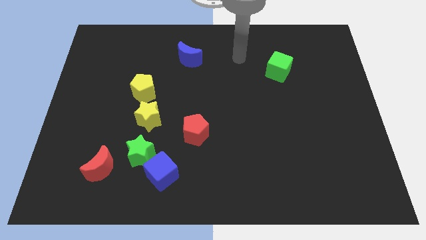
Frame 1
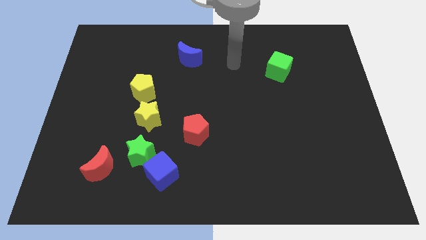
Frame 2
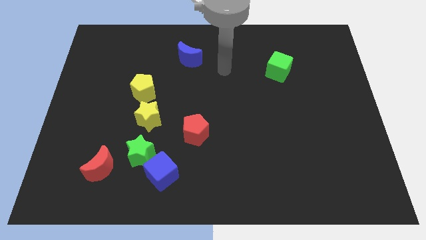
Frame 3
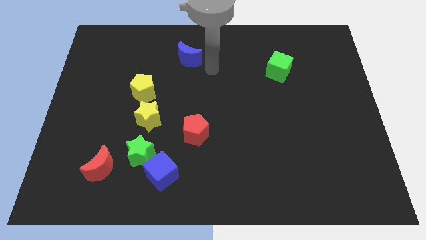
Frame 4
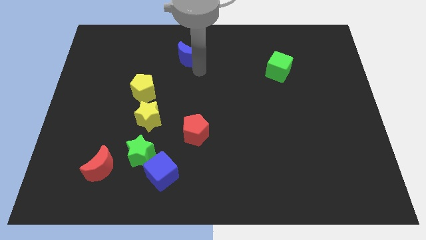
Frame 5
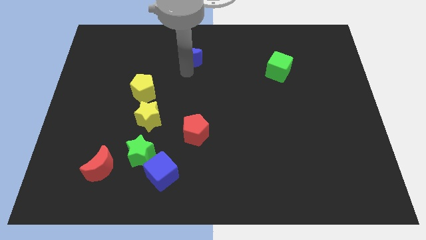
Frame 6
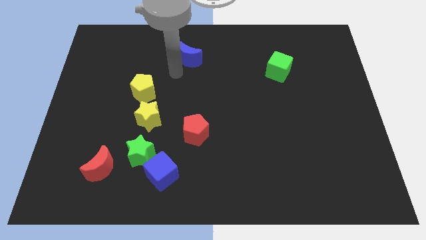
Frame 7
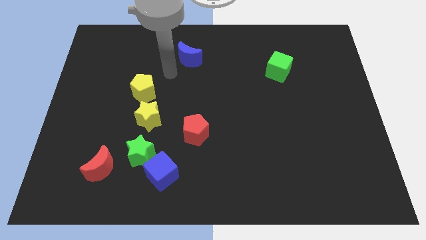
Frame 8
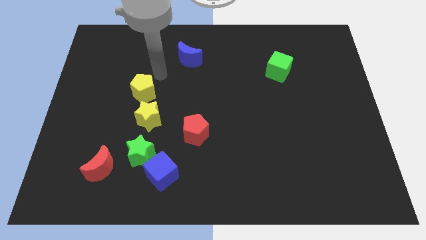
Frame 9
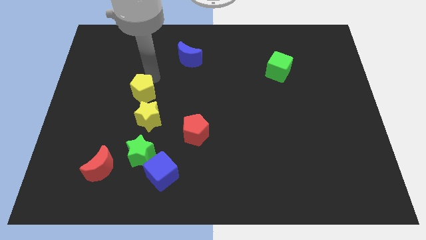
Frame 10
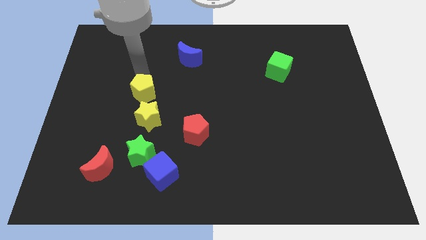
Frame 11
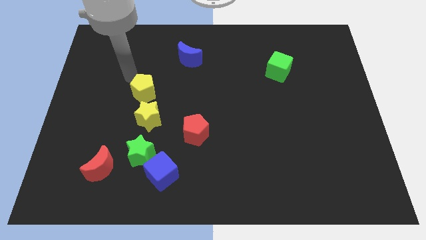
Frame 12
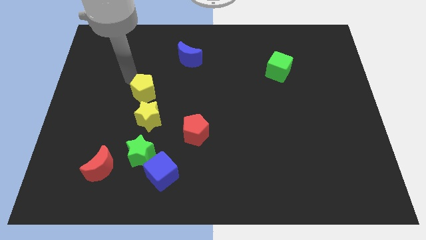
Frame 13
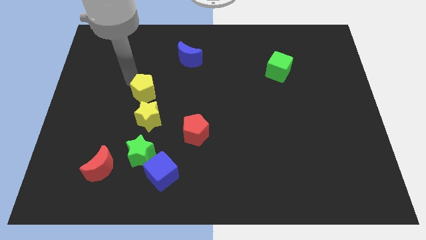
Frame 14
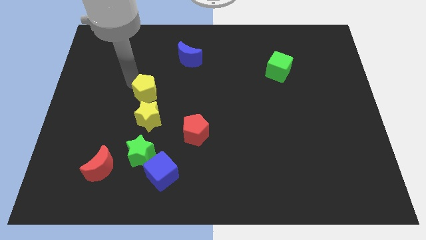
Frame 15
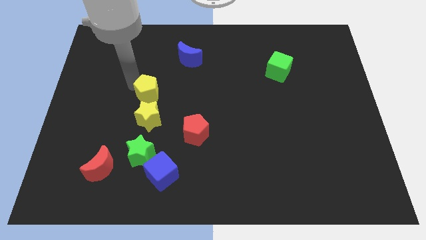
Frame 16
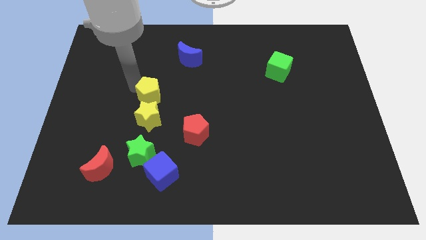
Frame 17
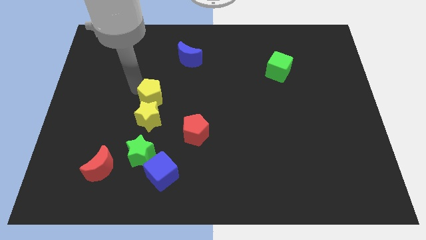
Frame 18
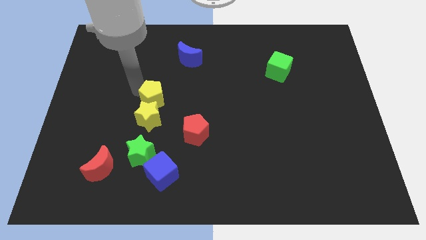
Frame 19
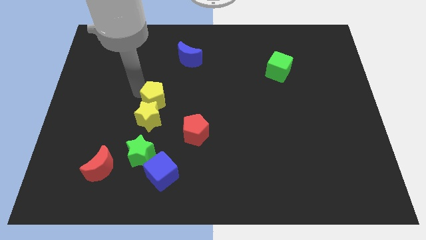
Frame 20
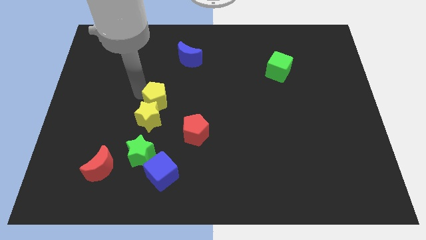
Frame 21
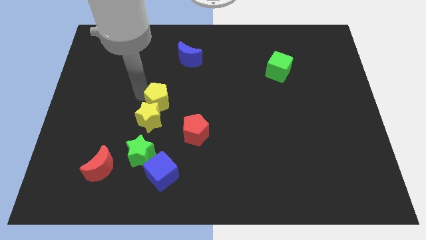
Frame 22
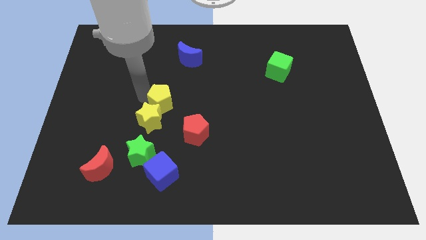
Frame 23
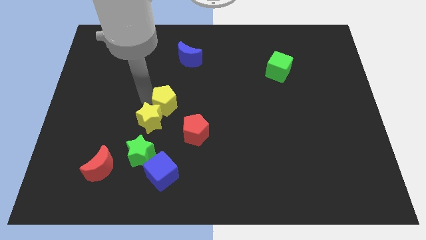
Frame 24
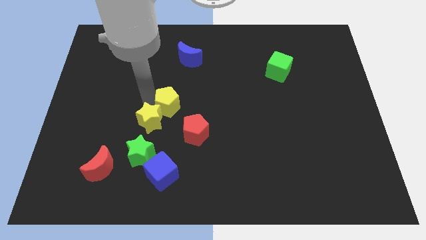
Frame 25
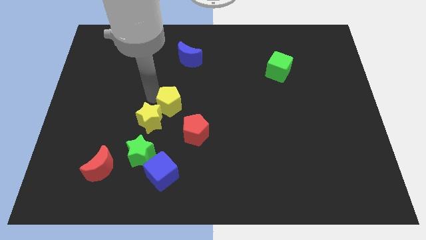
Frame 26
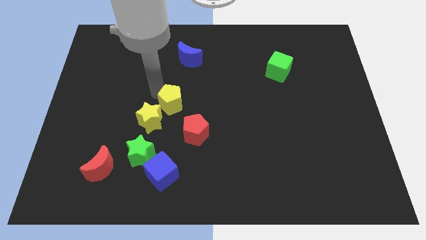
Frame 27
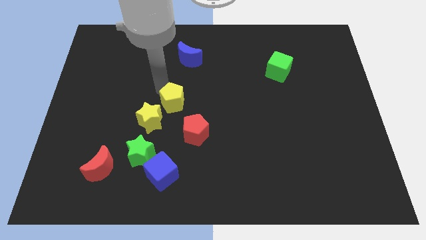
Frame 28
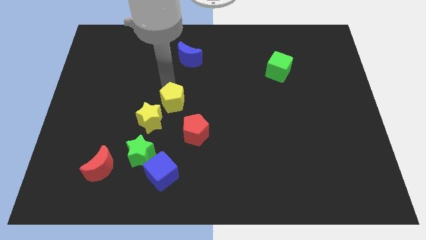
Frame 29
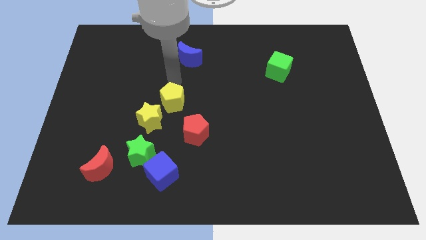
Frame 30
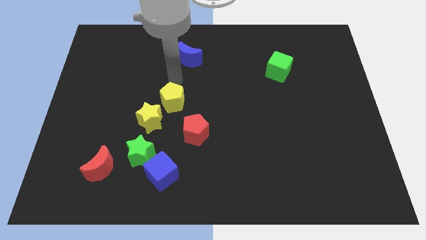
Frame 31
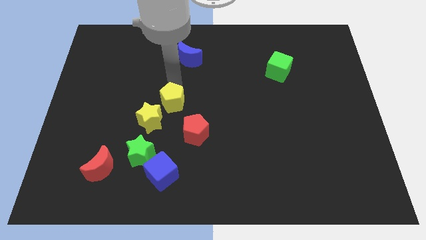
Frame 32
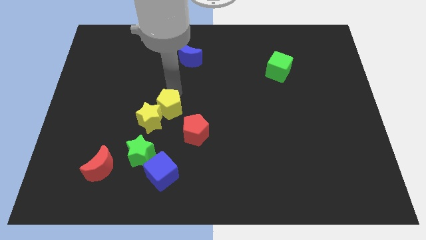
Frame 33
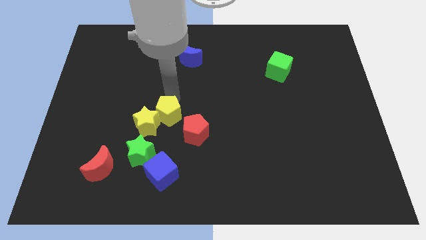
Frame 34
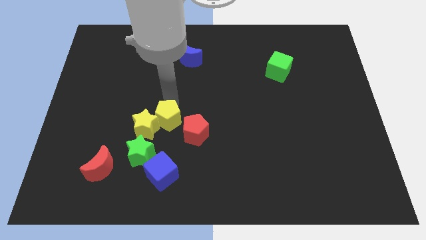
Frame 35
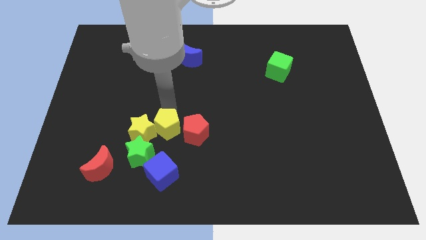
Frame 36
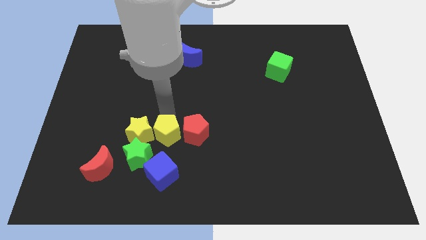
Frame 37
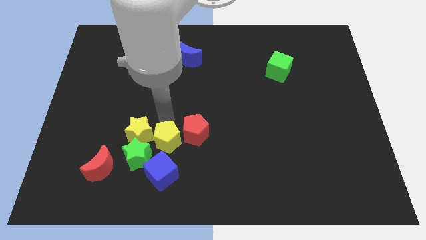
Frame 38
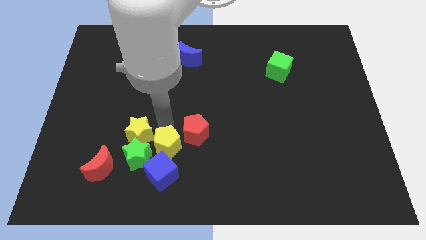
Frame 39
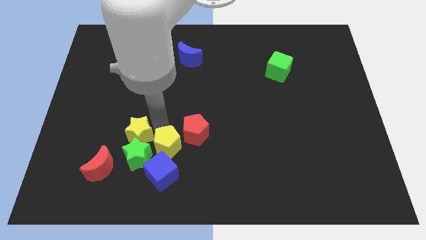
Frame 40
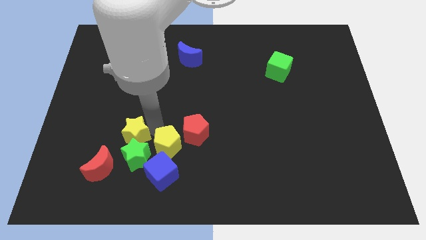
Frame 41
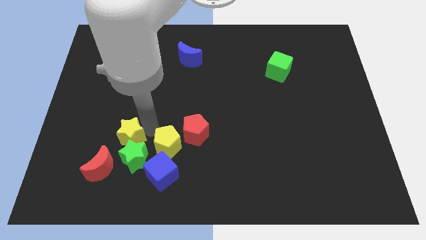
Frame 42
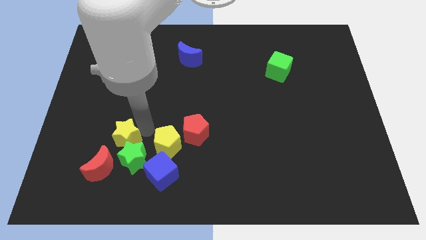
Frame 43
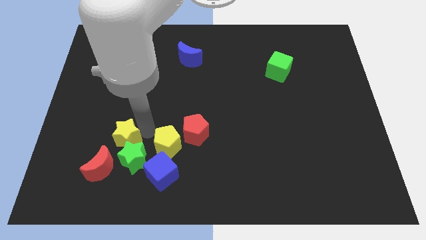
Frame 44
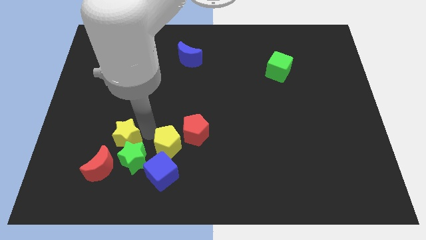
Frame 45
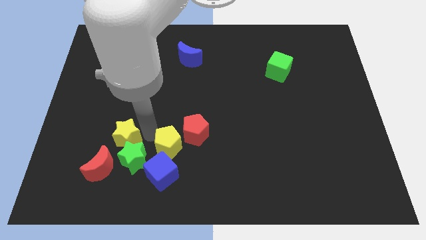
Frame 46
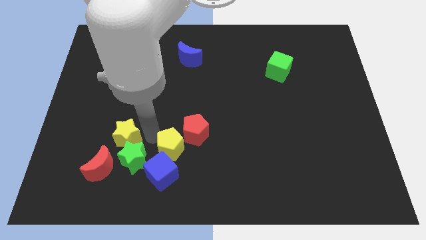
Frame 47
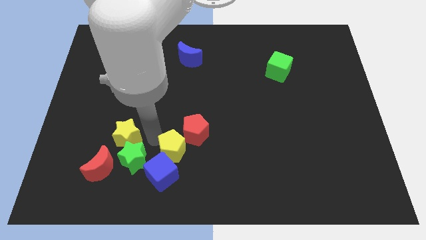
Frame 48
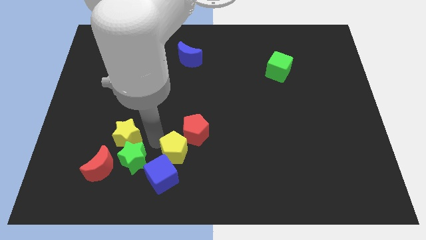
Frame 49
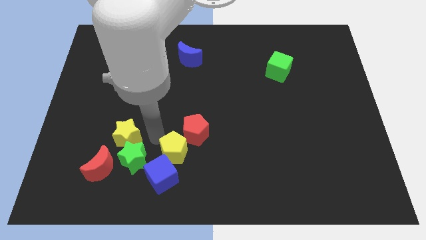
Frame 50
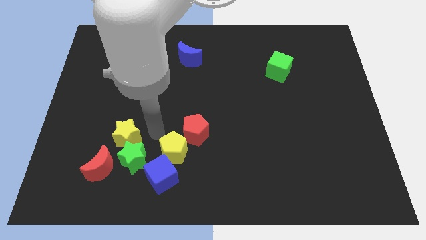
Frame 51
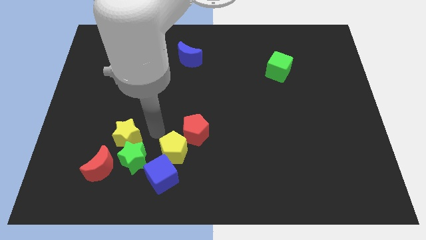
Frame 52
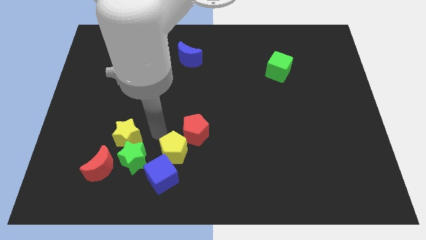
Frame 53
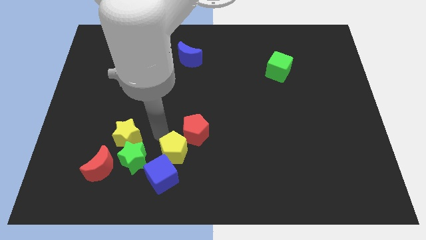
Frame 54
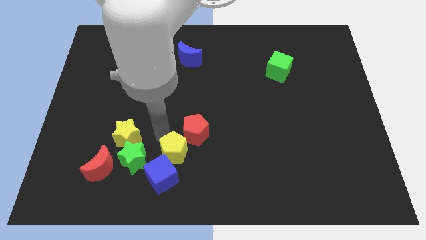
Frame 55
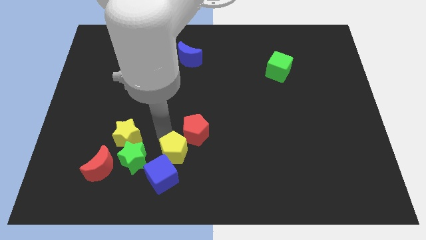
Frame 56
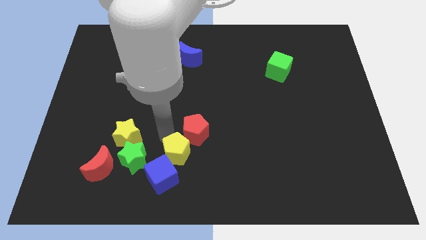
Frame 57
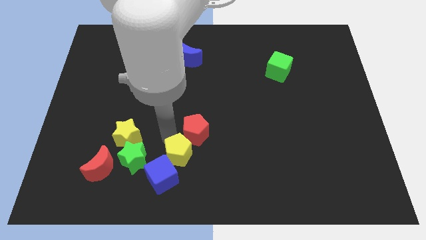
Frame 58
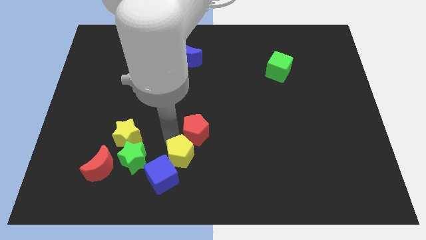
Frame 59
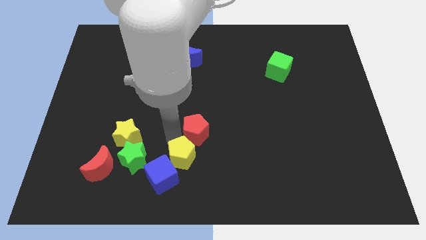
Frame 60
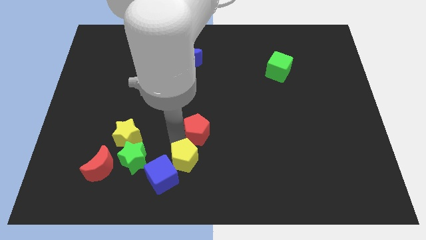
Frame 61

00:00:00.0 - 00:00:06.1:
push the yellow pentagon to the bottom side

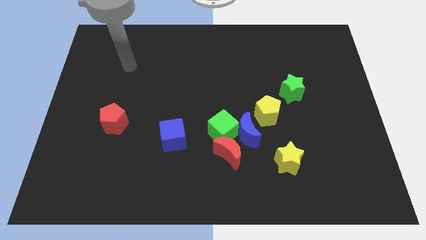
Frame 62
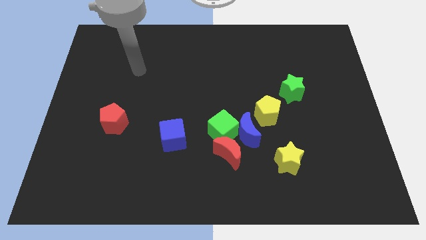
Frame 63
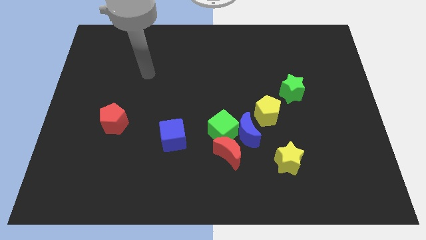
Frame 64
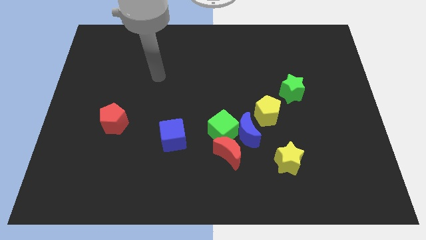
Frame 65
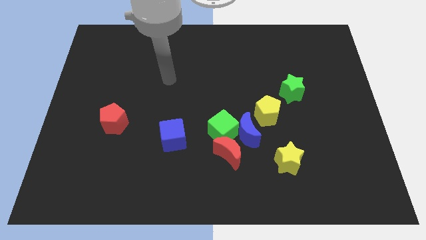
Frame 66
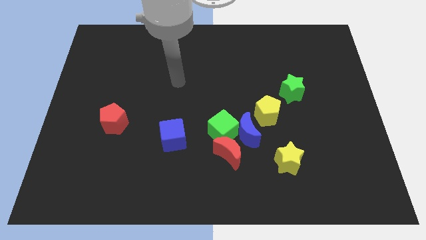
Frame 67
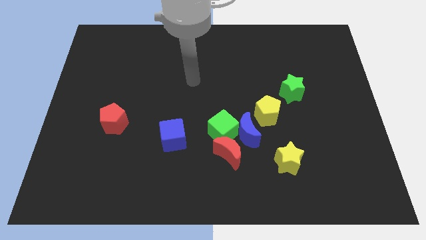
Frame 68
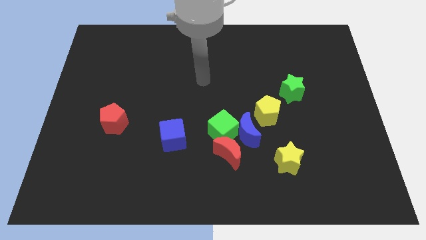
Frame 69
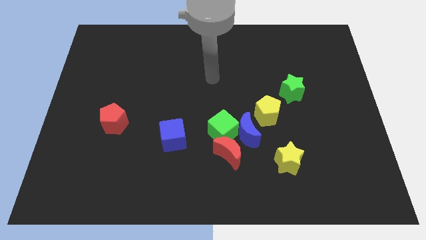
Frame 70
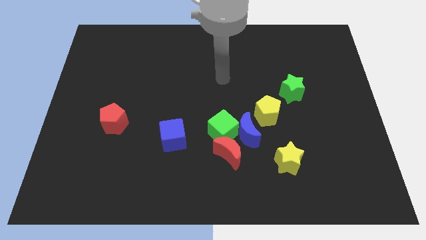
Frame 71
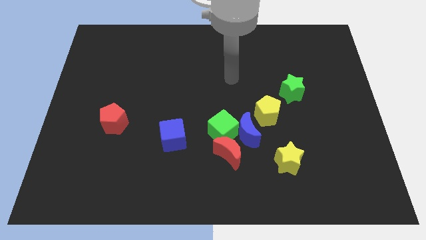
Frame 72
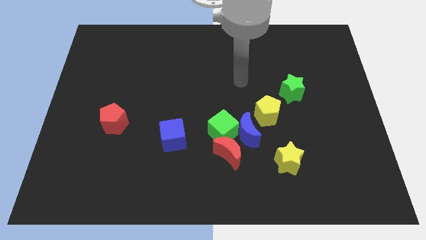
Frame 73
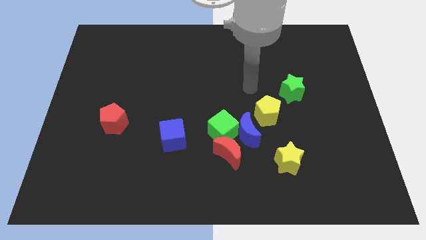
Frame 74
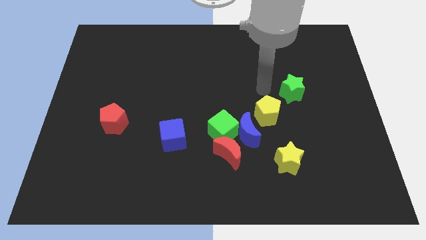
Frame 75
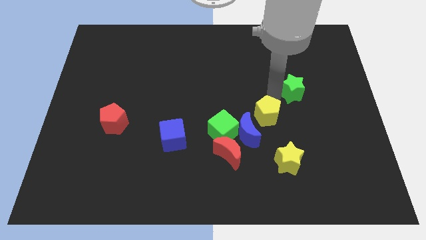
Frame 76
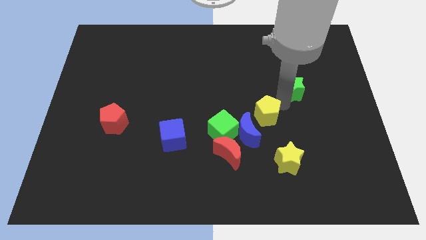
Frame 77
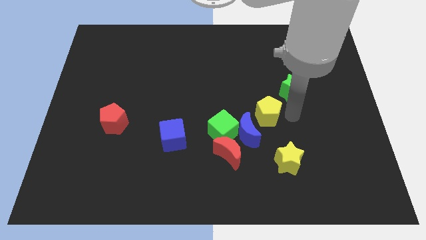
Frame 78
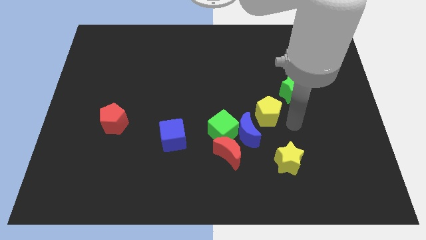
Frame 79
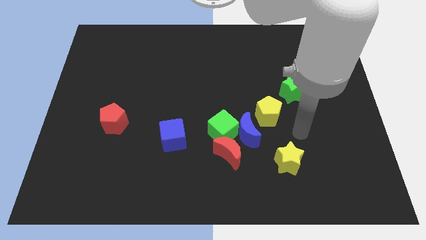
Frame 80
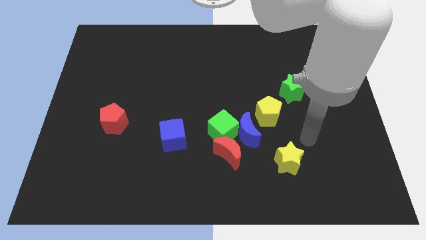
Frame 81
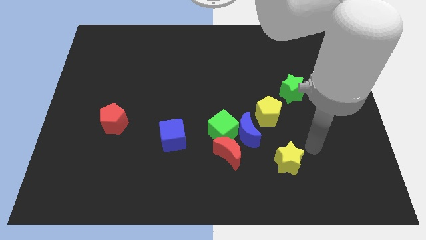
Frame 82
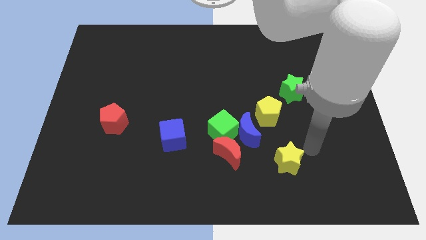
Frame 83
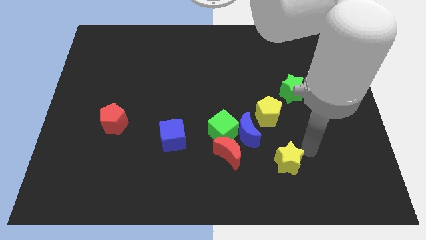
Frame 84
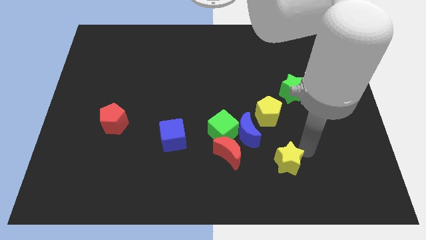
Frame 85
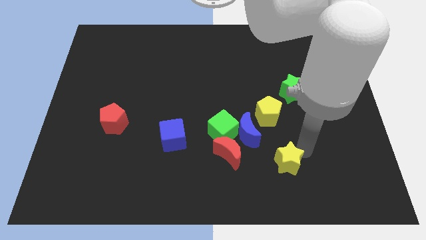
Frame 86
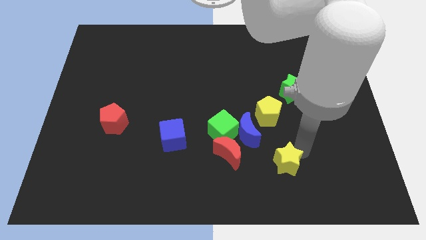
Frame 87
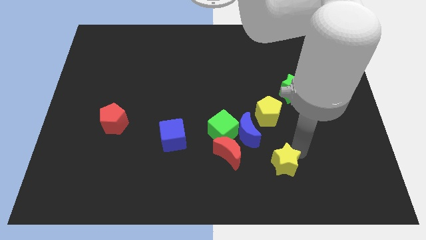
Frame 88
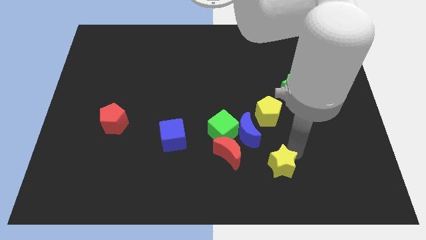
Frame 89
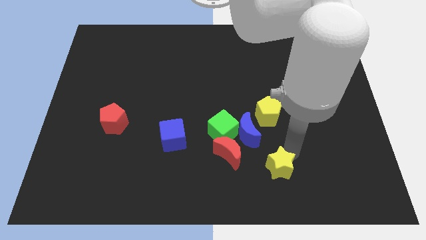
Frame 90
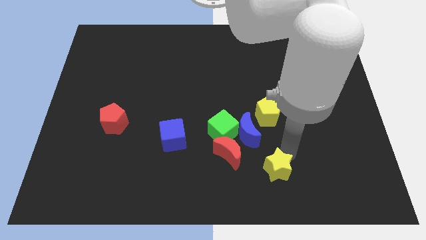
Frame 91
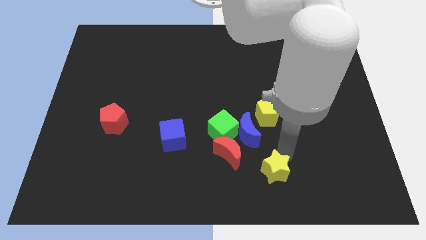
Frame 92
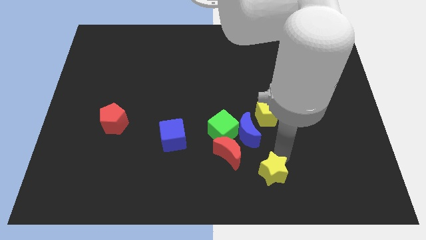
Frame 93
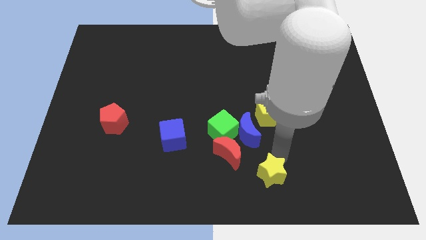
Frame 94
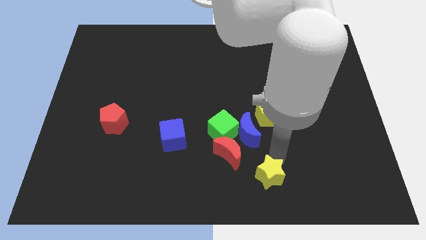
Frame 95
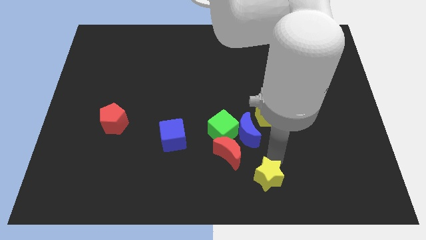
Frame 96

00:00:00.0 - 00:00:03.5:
push the yellow star to the bottom
